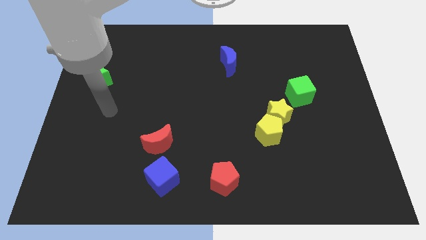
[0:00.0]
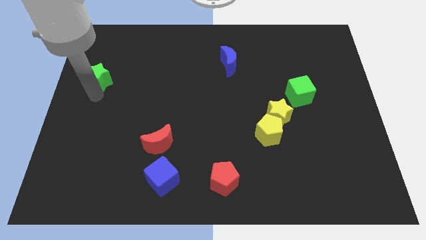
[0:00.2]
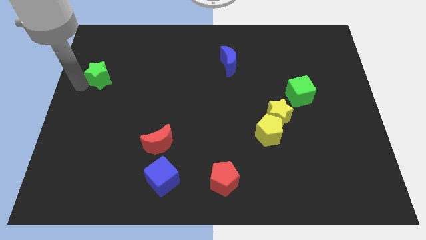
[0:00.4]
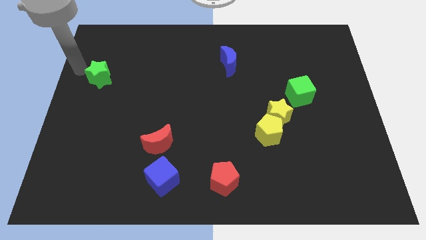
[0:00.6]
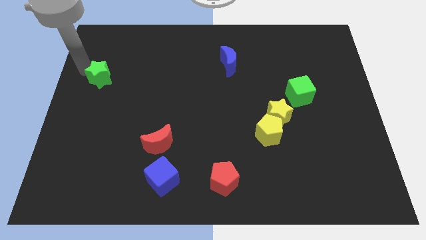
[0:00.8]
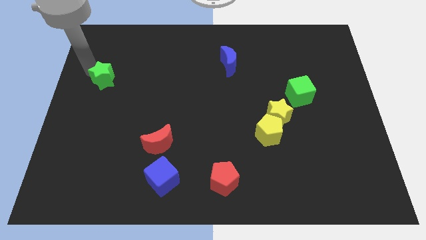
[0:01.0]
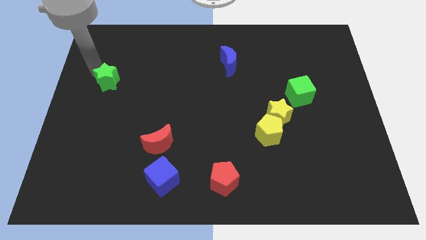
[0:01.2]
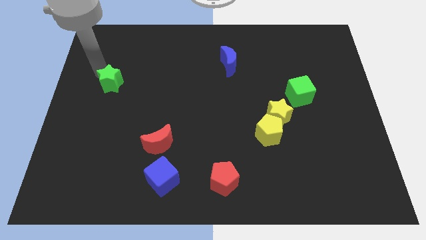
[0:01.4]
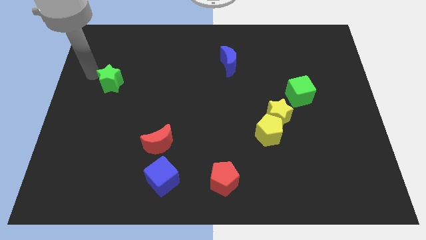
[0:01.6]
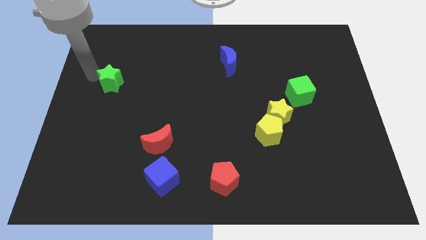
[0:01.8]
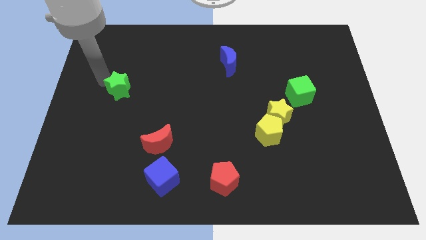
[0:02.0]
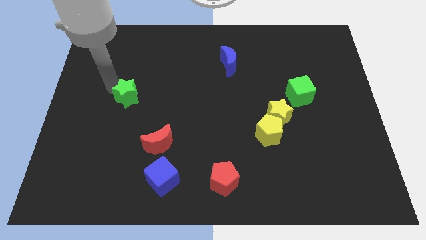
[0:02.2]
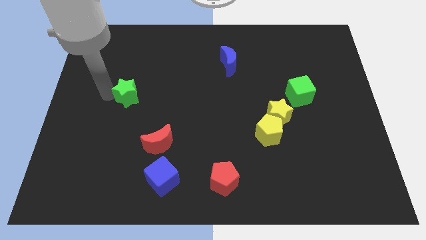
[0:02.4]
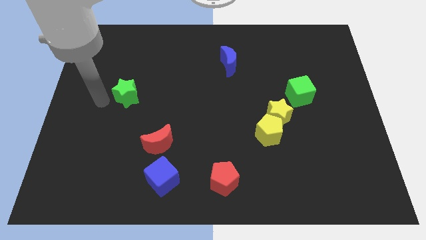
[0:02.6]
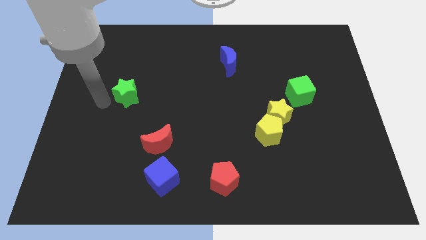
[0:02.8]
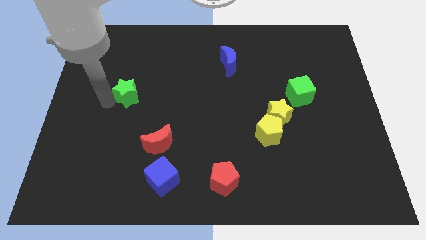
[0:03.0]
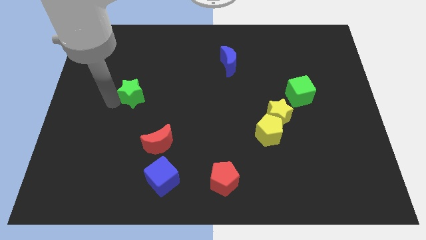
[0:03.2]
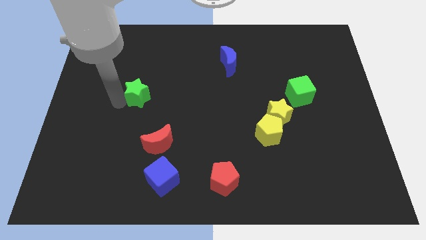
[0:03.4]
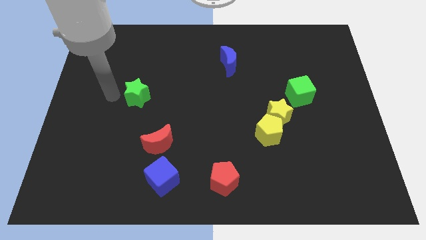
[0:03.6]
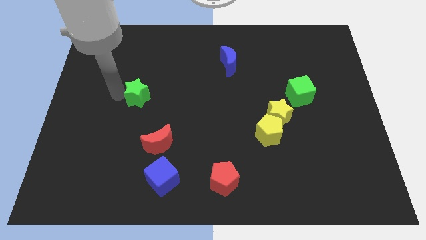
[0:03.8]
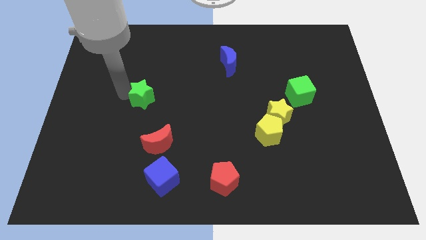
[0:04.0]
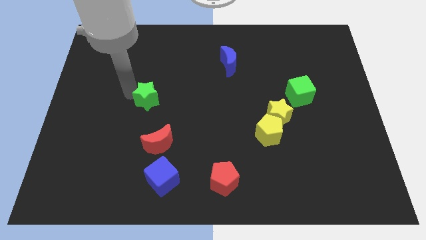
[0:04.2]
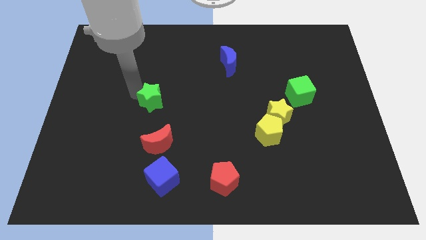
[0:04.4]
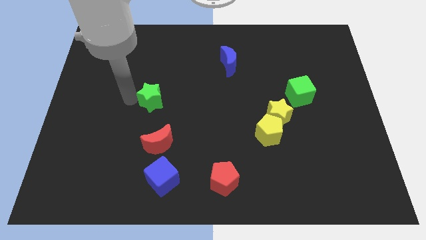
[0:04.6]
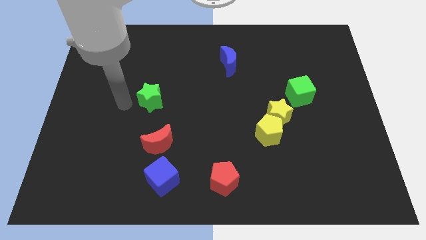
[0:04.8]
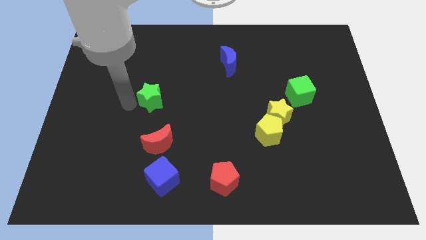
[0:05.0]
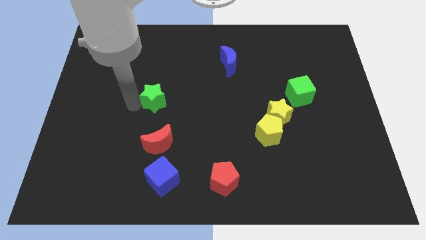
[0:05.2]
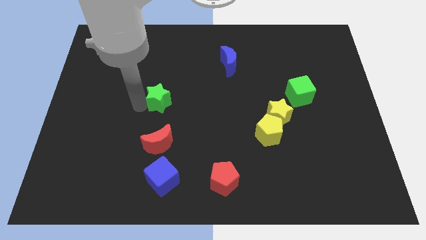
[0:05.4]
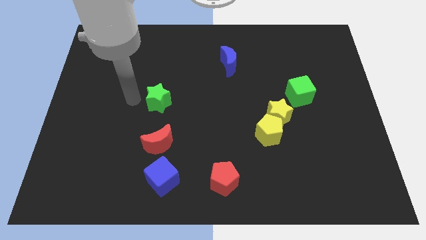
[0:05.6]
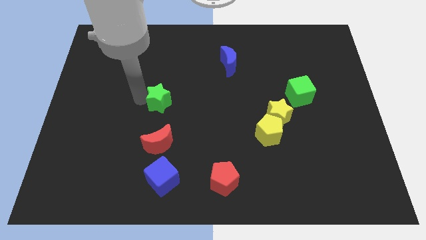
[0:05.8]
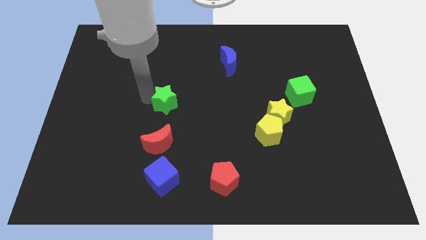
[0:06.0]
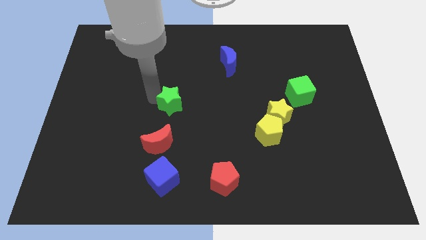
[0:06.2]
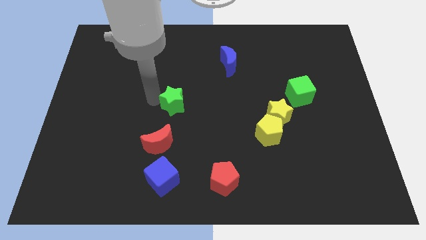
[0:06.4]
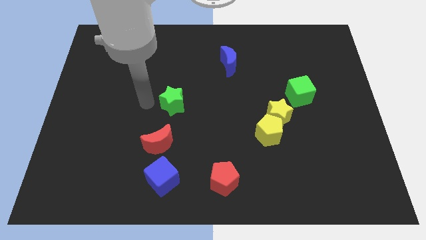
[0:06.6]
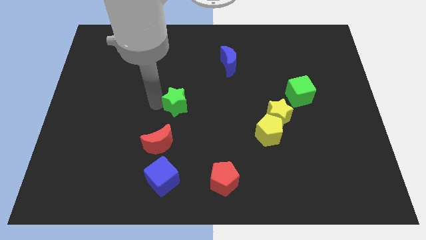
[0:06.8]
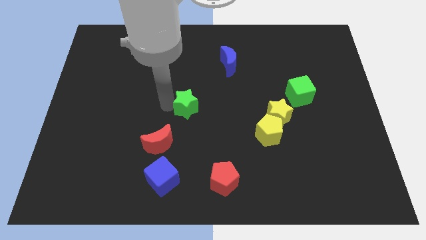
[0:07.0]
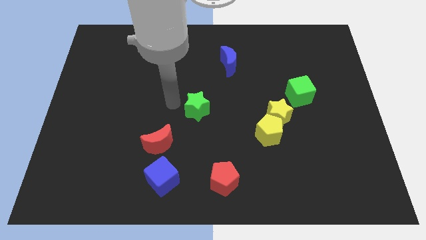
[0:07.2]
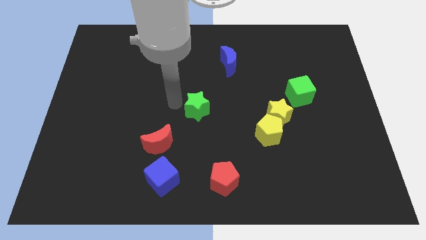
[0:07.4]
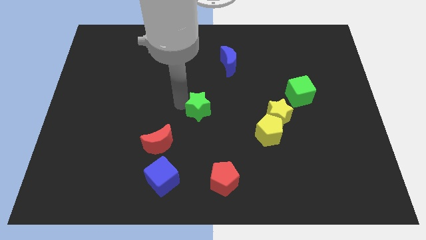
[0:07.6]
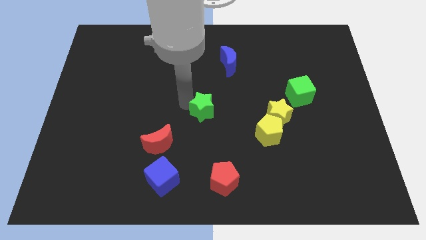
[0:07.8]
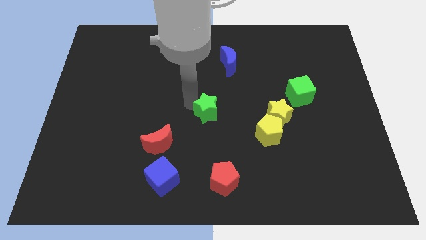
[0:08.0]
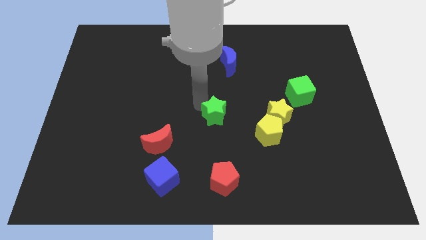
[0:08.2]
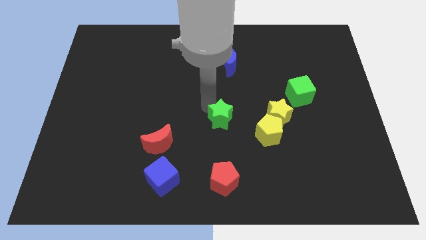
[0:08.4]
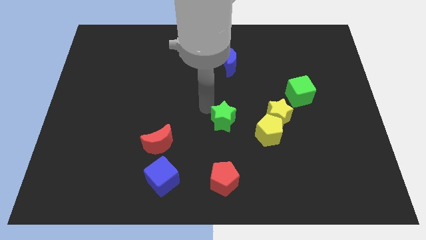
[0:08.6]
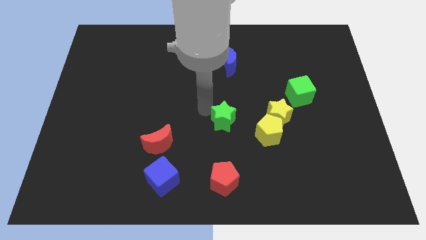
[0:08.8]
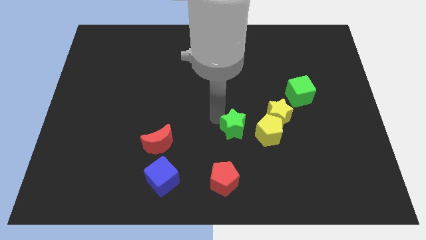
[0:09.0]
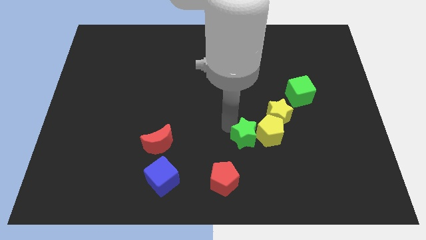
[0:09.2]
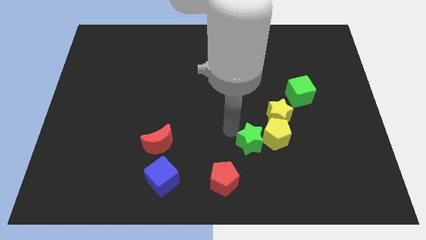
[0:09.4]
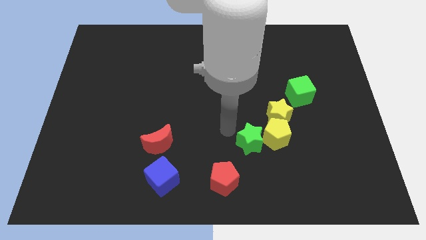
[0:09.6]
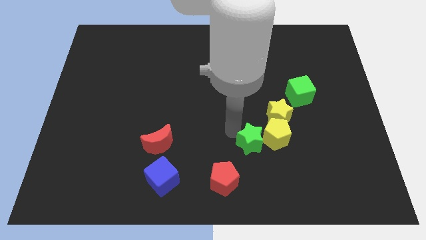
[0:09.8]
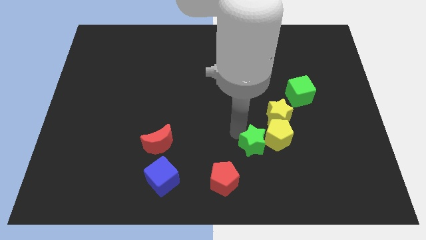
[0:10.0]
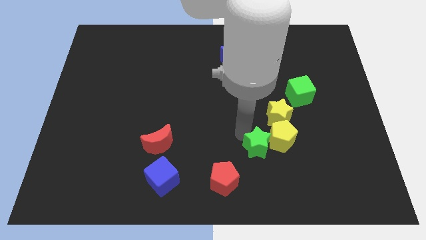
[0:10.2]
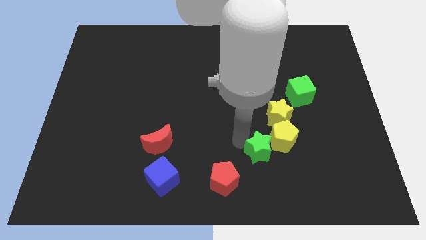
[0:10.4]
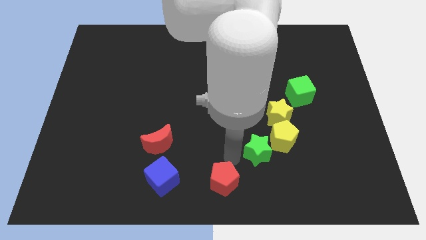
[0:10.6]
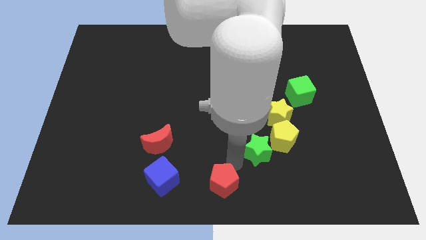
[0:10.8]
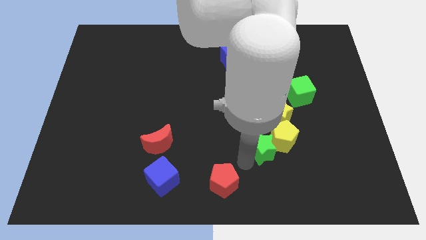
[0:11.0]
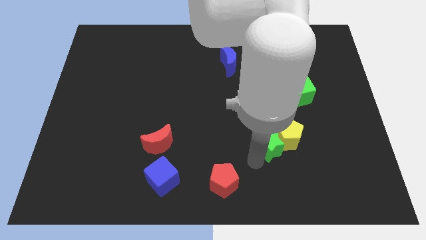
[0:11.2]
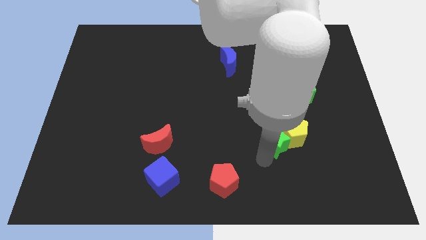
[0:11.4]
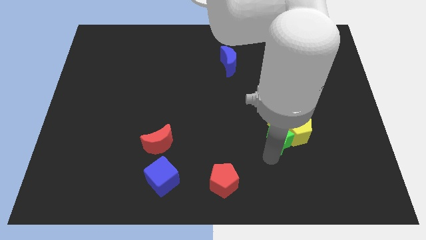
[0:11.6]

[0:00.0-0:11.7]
push the green star to the bottom right side of the yellow star

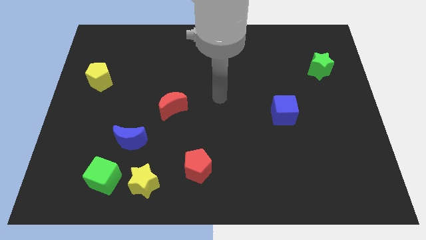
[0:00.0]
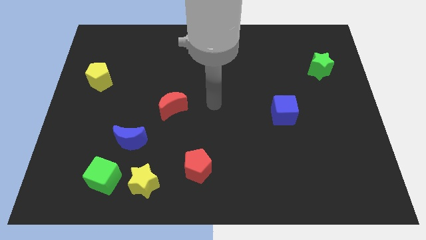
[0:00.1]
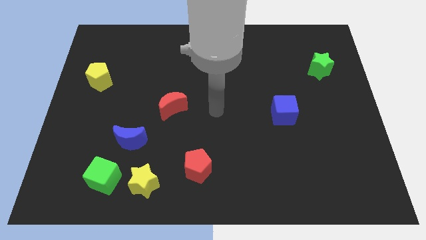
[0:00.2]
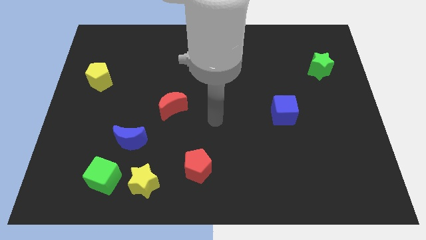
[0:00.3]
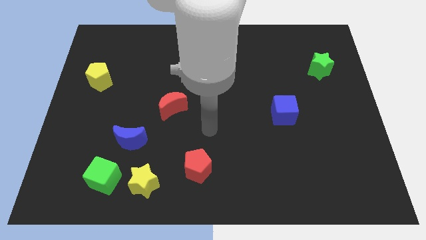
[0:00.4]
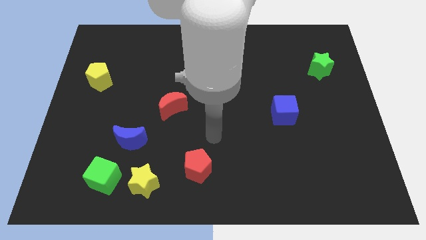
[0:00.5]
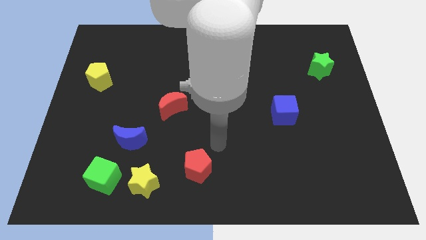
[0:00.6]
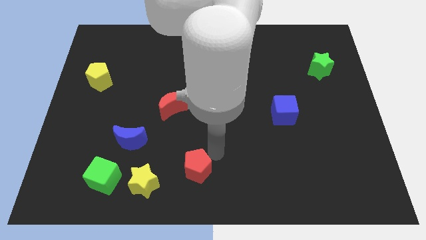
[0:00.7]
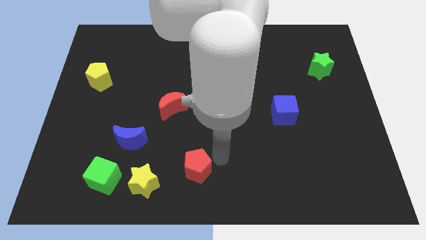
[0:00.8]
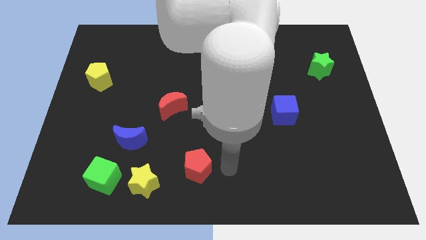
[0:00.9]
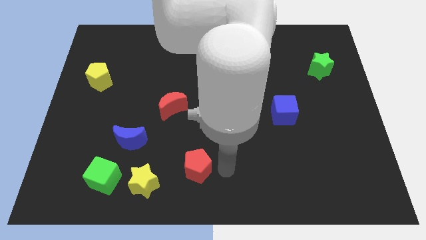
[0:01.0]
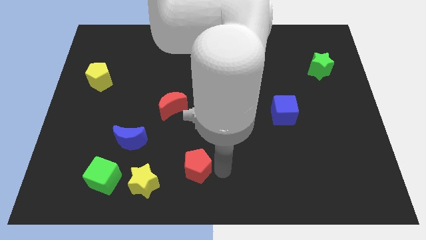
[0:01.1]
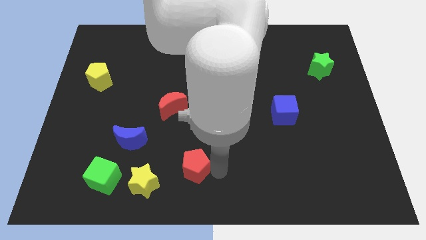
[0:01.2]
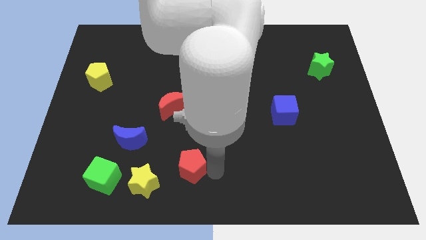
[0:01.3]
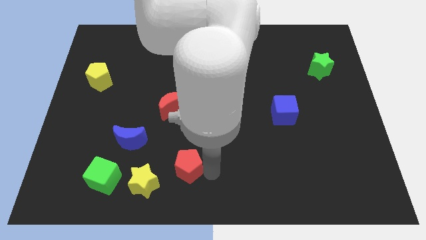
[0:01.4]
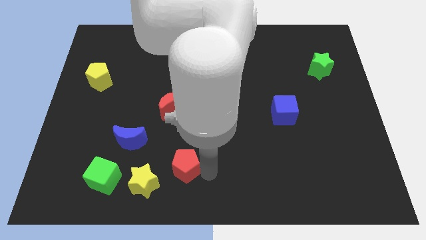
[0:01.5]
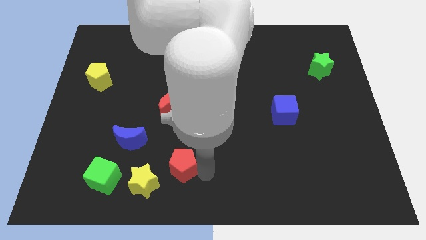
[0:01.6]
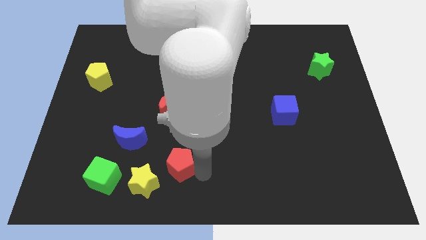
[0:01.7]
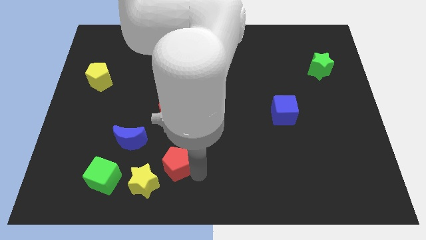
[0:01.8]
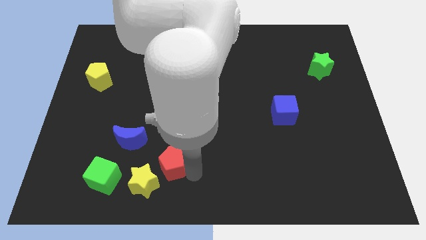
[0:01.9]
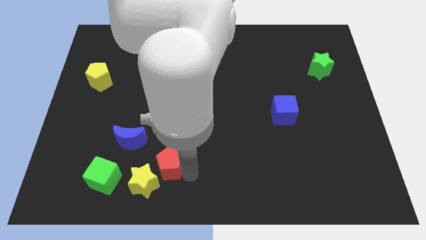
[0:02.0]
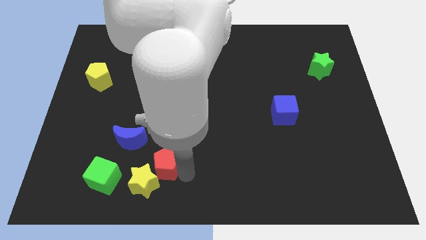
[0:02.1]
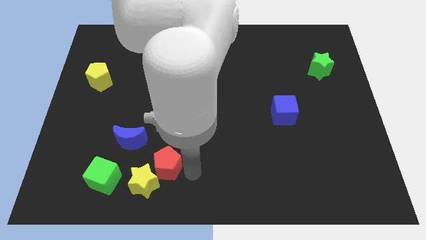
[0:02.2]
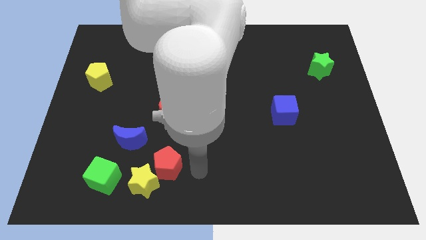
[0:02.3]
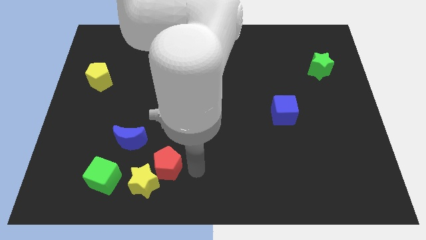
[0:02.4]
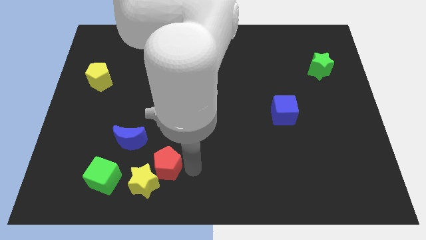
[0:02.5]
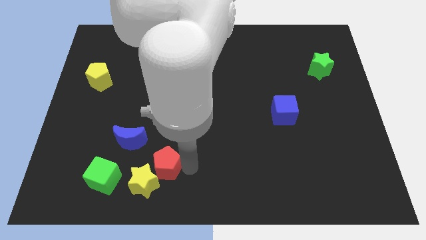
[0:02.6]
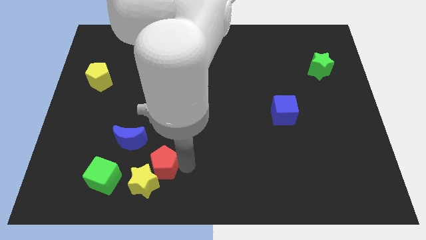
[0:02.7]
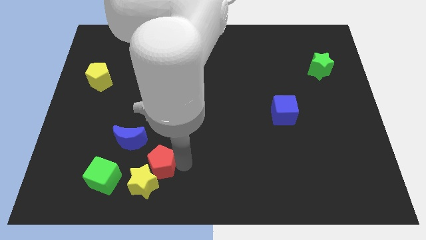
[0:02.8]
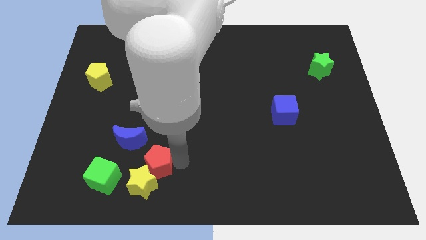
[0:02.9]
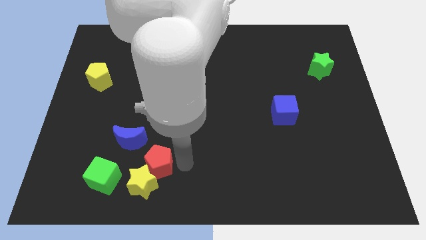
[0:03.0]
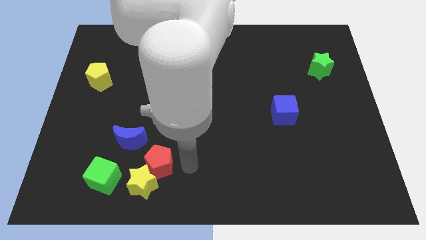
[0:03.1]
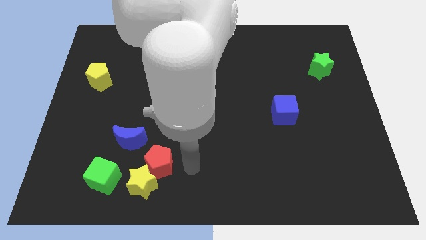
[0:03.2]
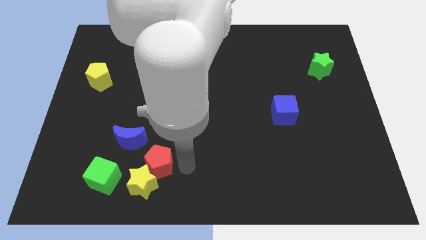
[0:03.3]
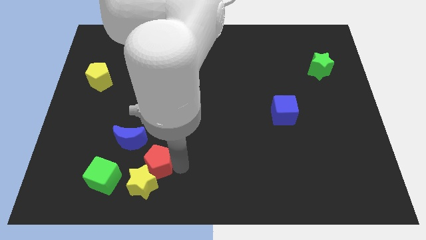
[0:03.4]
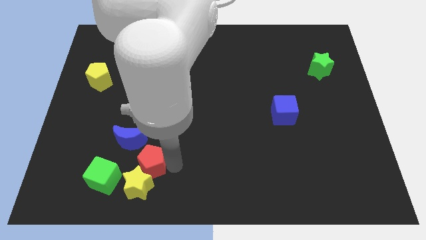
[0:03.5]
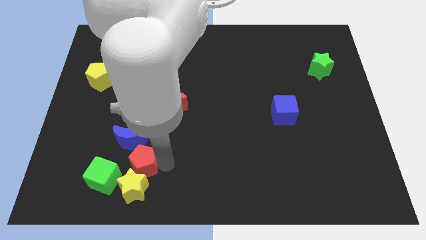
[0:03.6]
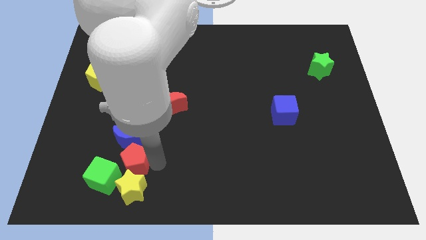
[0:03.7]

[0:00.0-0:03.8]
push the red pentagon diagonally up and to the left of the yellow star
